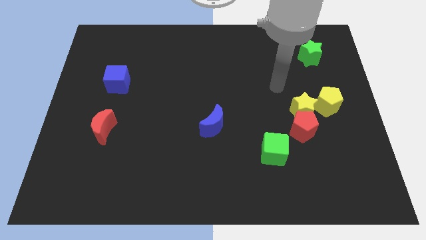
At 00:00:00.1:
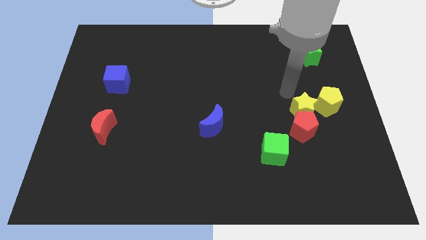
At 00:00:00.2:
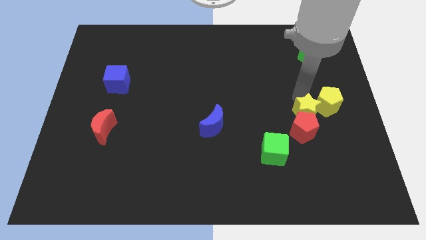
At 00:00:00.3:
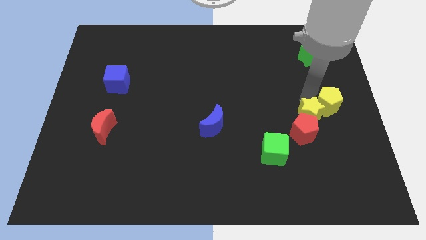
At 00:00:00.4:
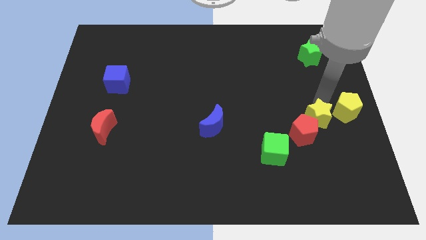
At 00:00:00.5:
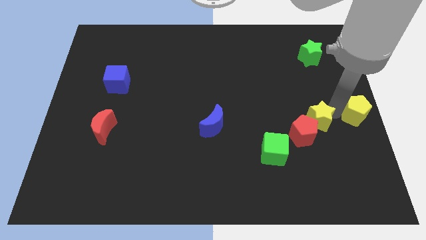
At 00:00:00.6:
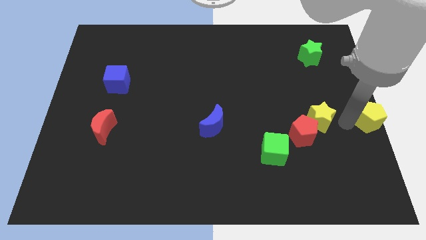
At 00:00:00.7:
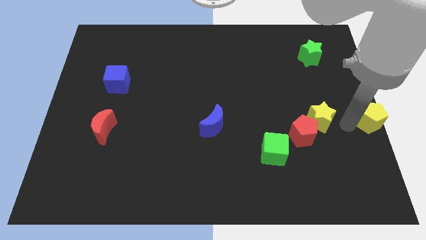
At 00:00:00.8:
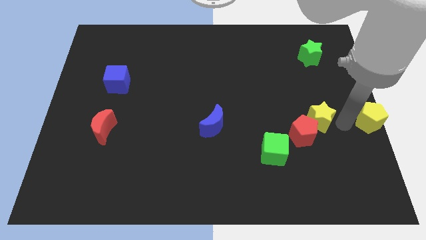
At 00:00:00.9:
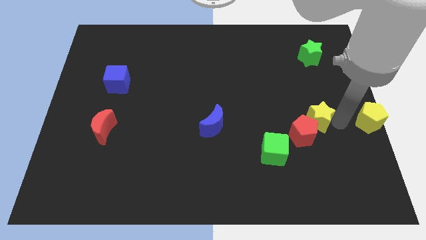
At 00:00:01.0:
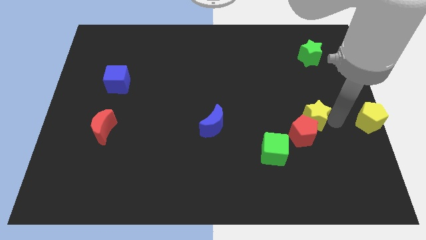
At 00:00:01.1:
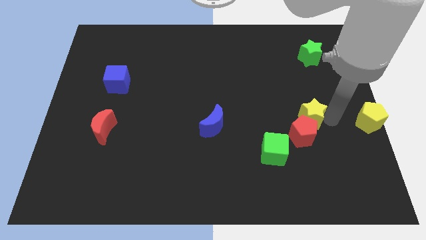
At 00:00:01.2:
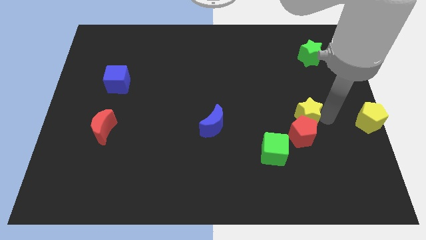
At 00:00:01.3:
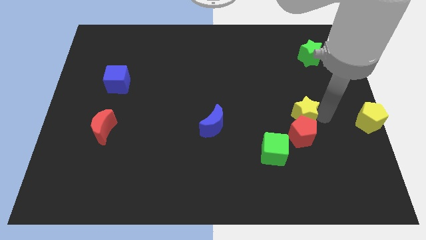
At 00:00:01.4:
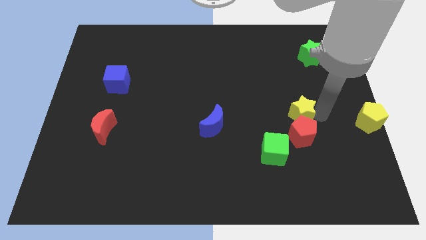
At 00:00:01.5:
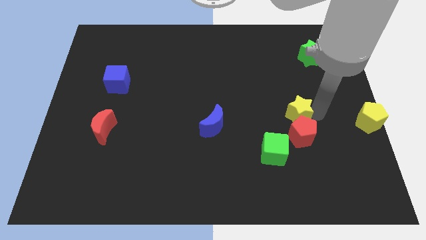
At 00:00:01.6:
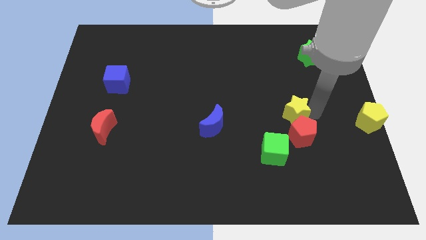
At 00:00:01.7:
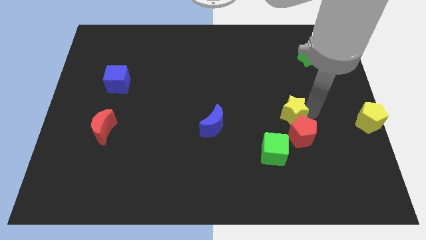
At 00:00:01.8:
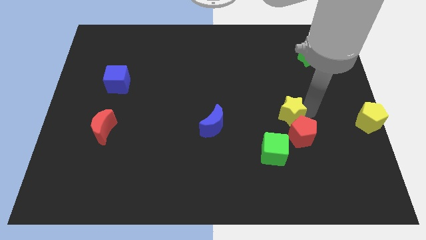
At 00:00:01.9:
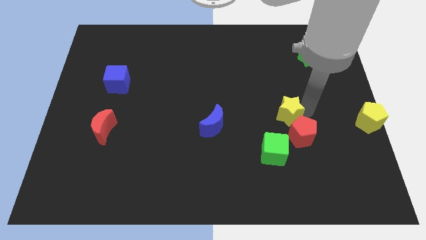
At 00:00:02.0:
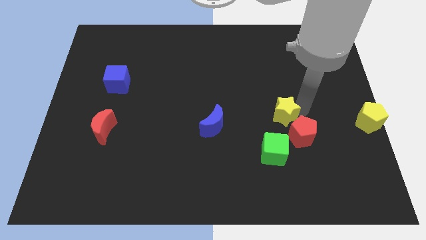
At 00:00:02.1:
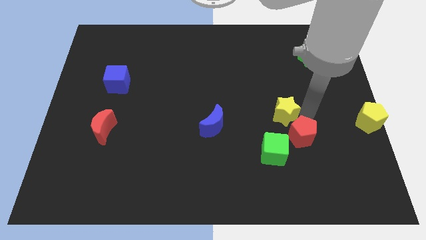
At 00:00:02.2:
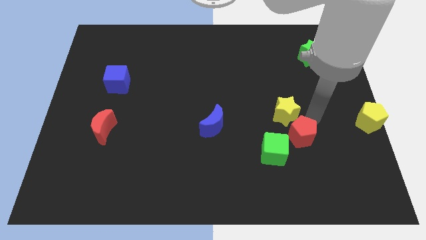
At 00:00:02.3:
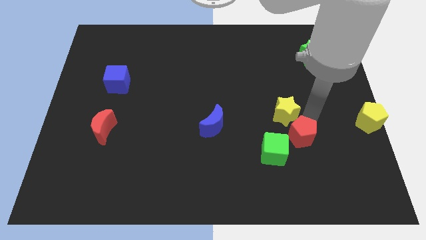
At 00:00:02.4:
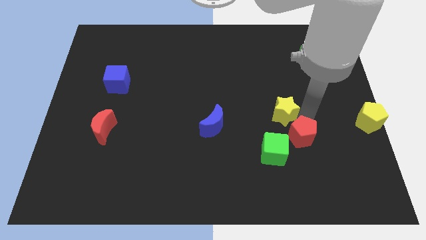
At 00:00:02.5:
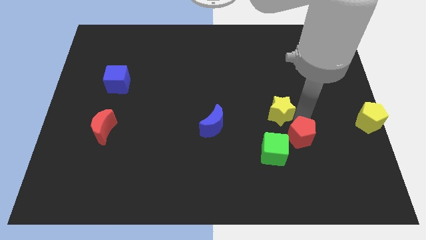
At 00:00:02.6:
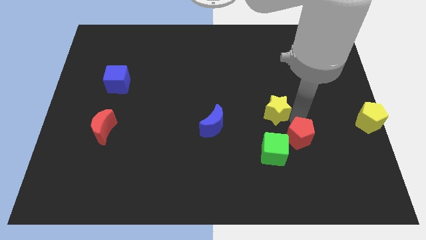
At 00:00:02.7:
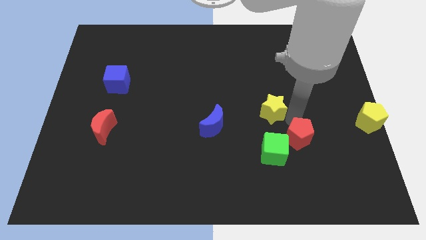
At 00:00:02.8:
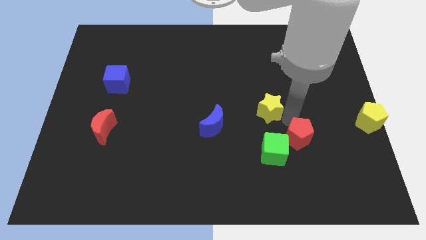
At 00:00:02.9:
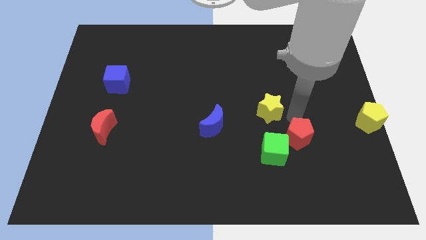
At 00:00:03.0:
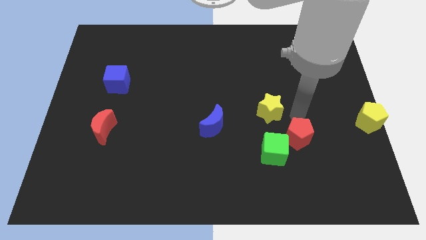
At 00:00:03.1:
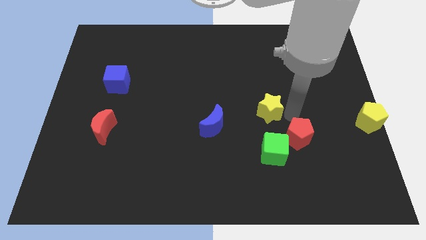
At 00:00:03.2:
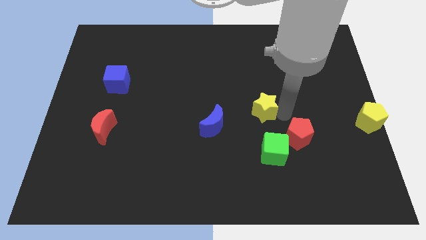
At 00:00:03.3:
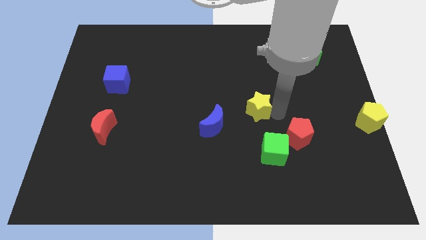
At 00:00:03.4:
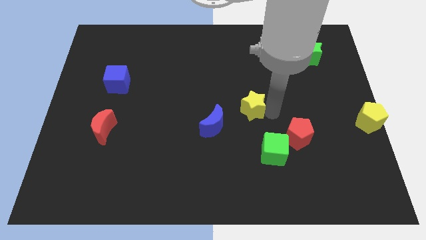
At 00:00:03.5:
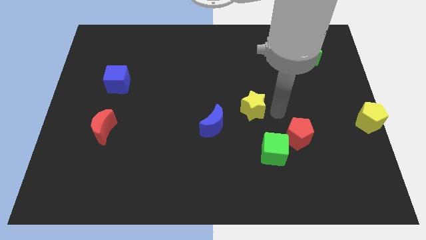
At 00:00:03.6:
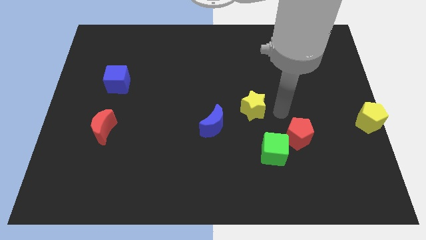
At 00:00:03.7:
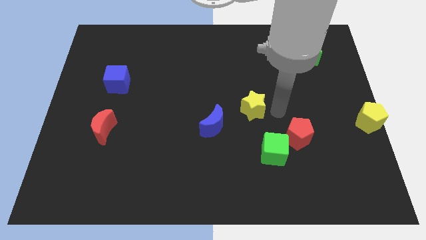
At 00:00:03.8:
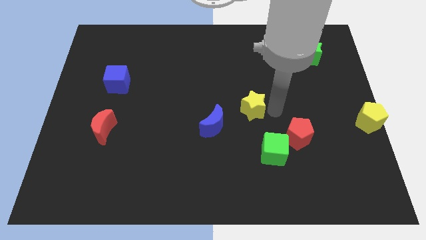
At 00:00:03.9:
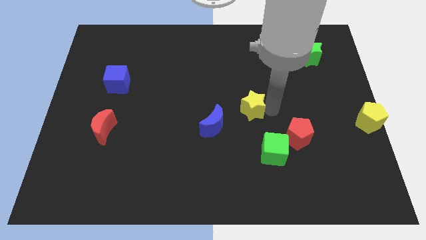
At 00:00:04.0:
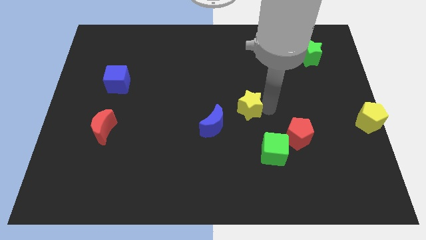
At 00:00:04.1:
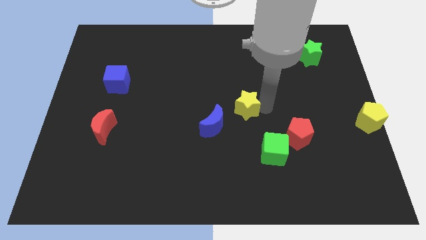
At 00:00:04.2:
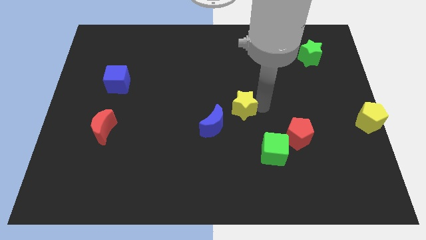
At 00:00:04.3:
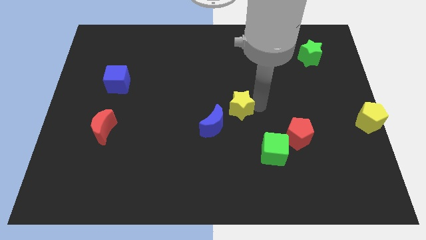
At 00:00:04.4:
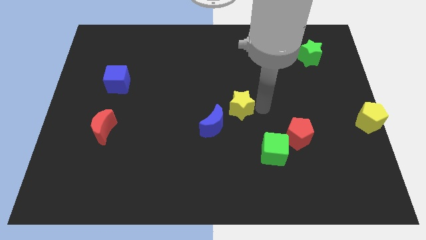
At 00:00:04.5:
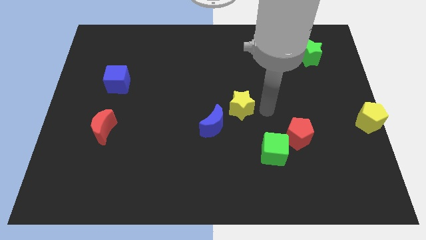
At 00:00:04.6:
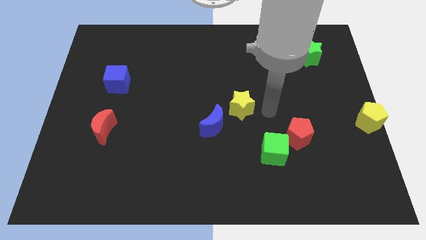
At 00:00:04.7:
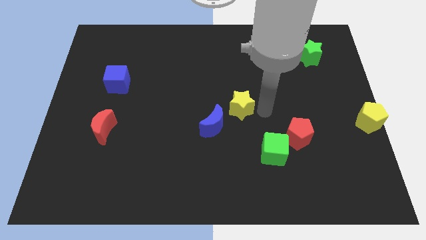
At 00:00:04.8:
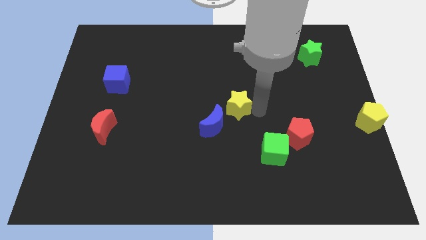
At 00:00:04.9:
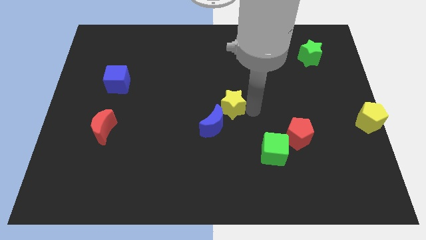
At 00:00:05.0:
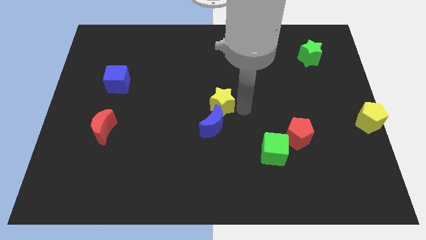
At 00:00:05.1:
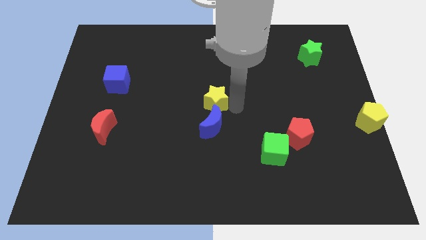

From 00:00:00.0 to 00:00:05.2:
push the yellow star to the left

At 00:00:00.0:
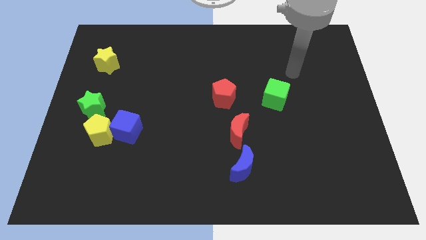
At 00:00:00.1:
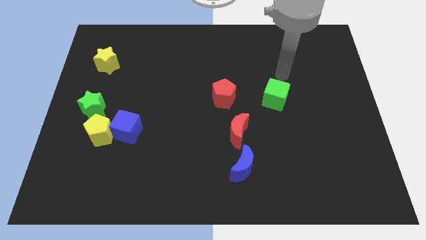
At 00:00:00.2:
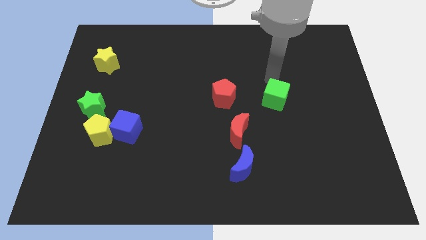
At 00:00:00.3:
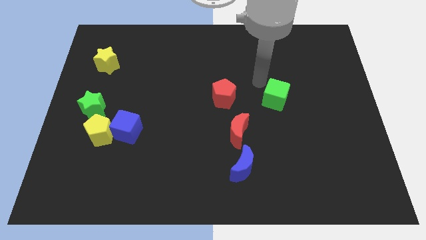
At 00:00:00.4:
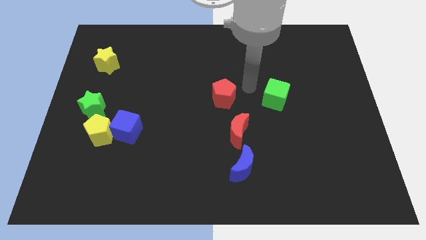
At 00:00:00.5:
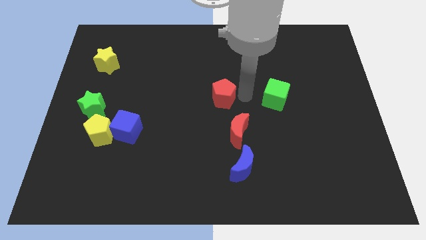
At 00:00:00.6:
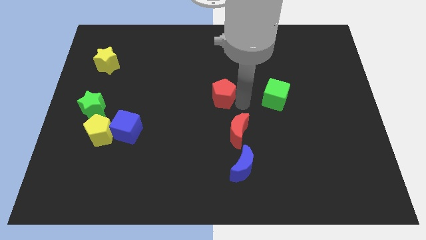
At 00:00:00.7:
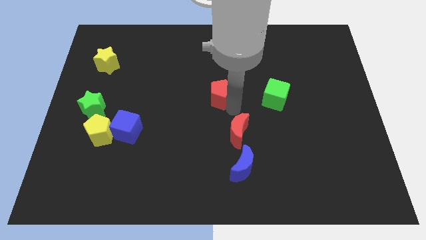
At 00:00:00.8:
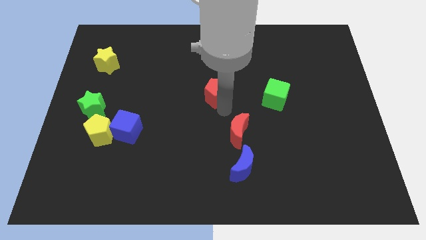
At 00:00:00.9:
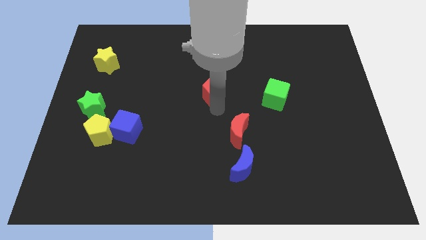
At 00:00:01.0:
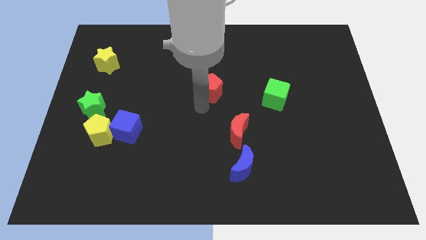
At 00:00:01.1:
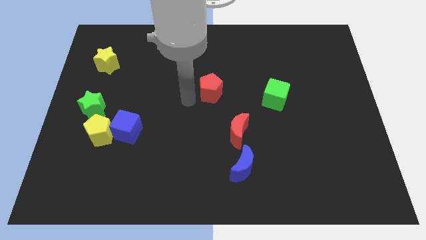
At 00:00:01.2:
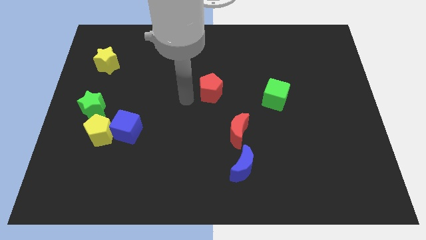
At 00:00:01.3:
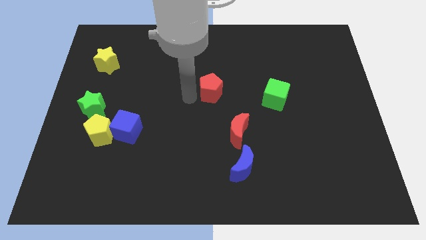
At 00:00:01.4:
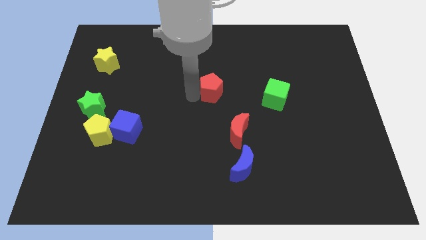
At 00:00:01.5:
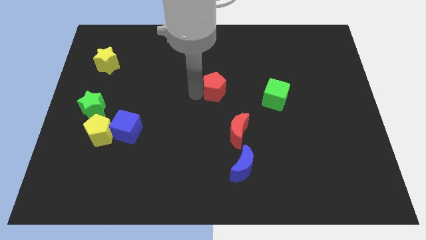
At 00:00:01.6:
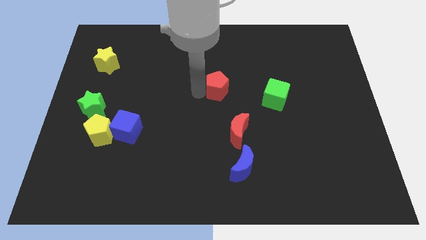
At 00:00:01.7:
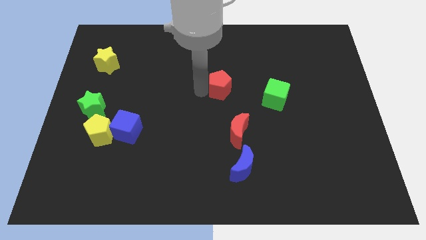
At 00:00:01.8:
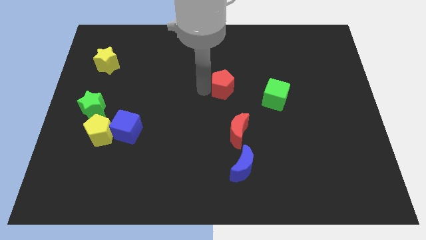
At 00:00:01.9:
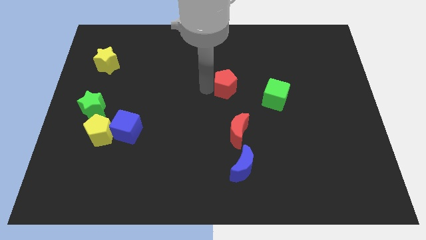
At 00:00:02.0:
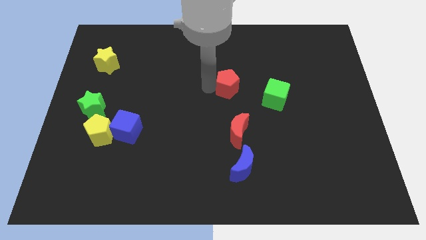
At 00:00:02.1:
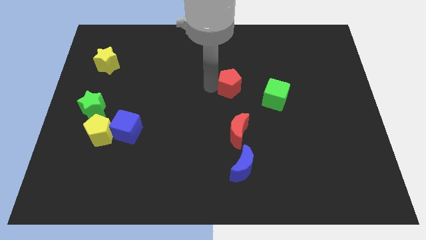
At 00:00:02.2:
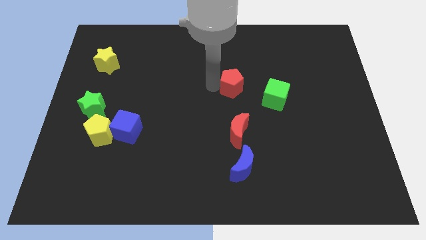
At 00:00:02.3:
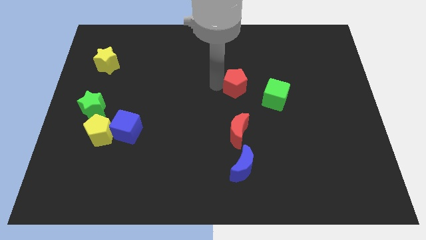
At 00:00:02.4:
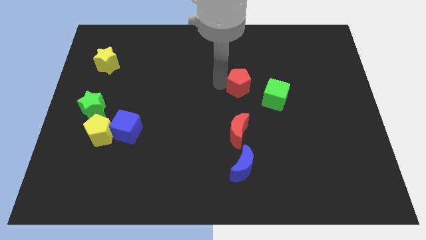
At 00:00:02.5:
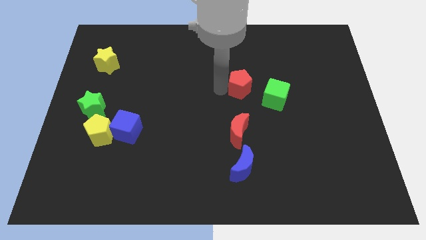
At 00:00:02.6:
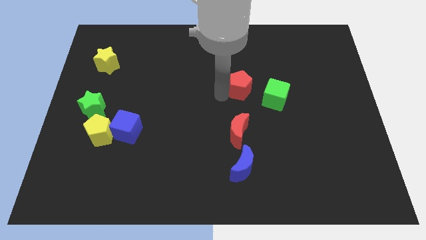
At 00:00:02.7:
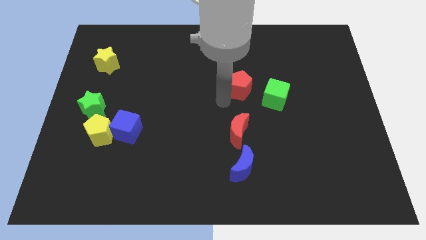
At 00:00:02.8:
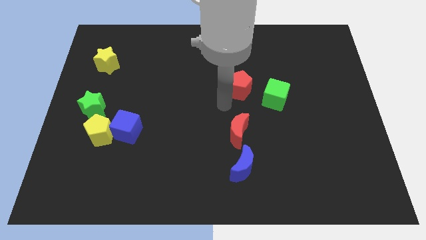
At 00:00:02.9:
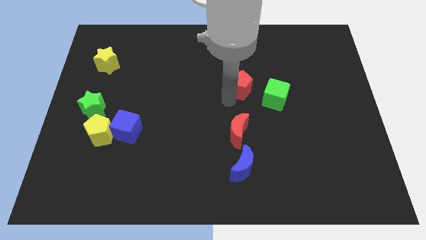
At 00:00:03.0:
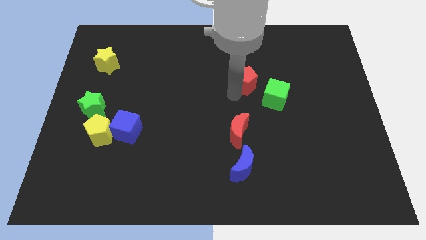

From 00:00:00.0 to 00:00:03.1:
push the red pentagon a little bit upwards and then right
